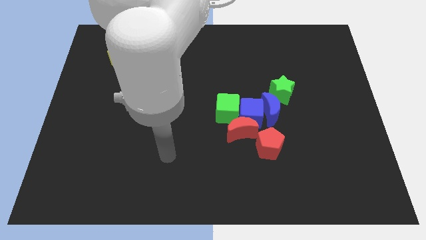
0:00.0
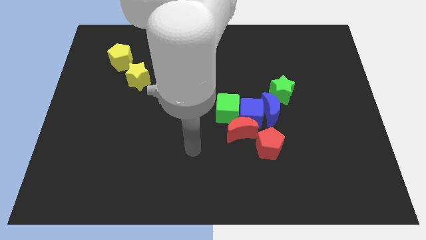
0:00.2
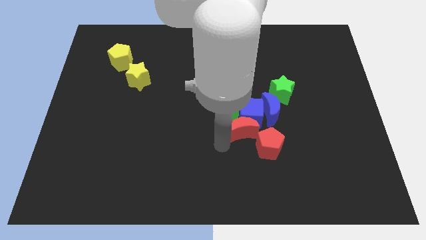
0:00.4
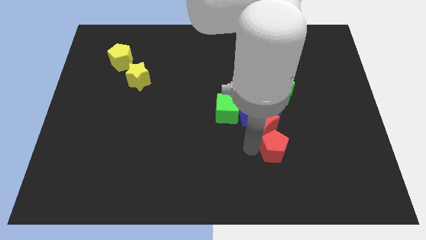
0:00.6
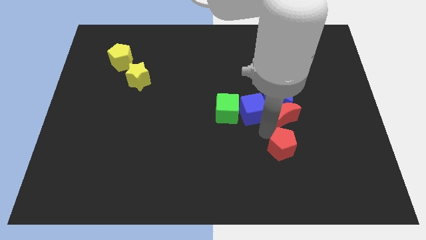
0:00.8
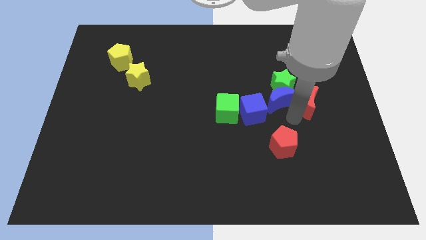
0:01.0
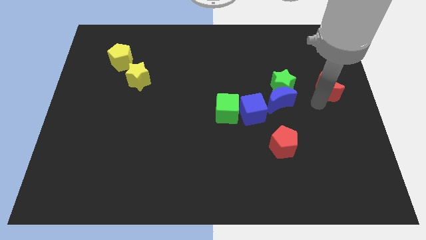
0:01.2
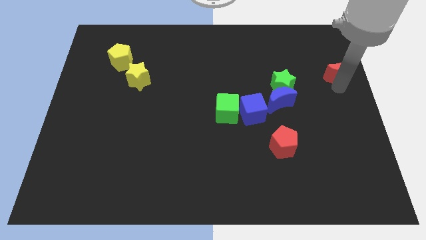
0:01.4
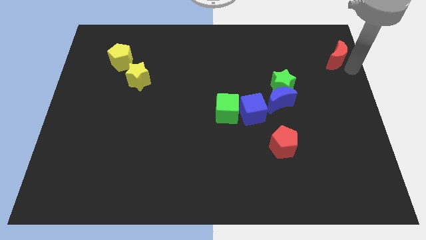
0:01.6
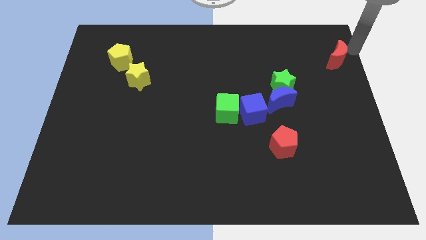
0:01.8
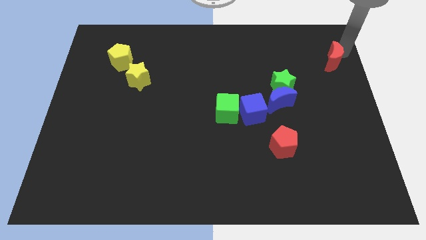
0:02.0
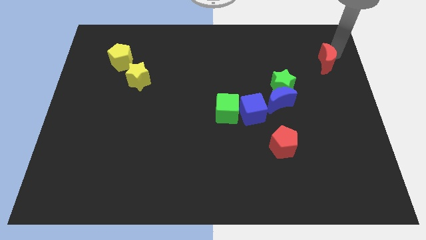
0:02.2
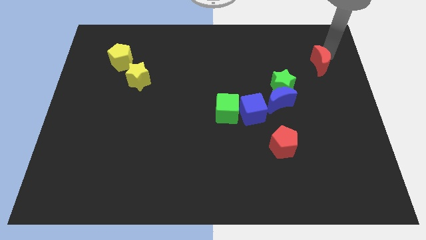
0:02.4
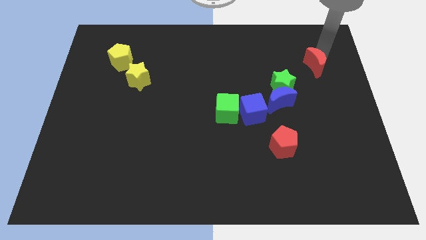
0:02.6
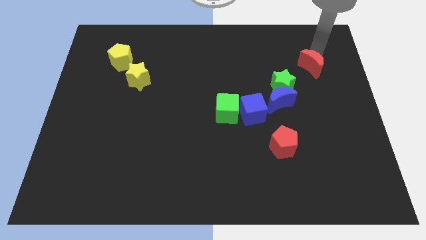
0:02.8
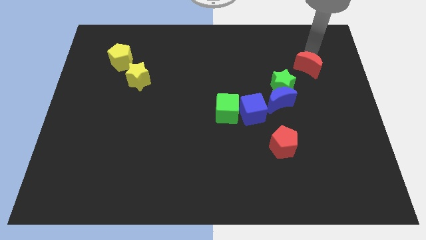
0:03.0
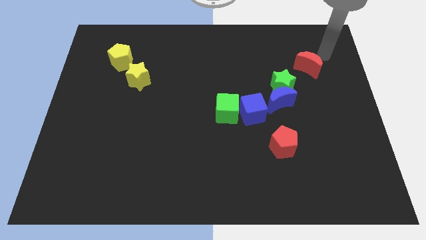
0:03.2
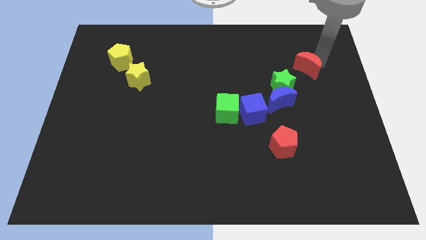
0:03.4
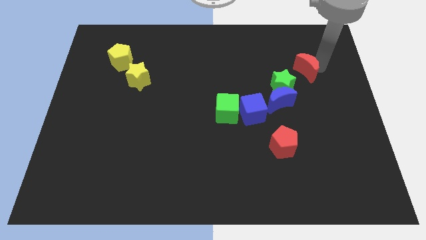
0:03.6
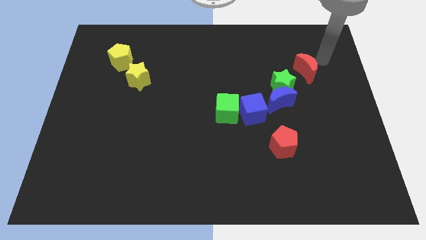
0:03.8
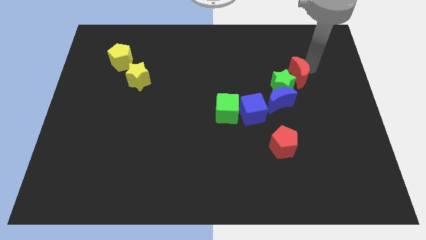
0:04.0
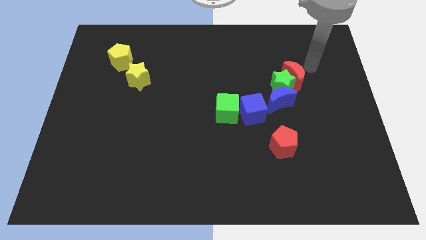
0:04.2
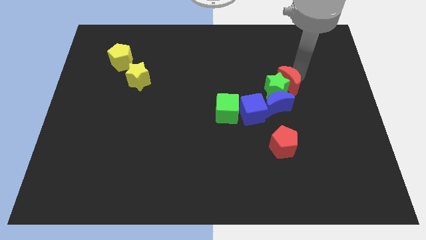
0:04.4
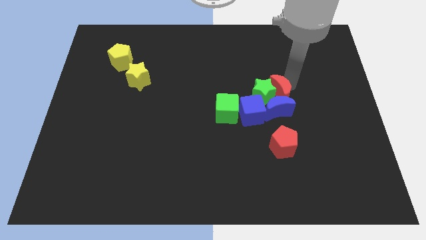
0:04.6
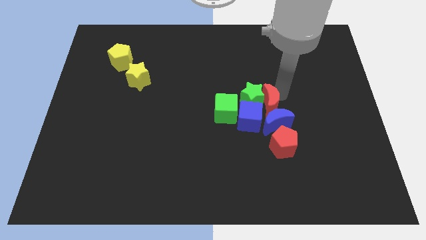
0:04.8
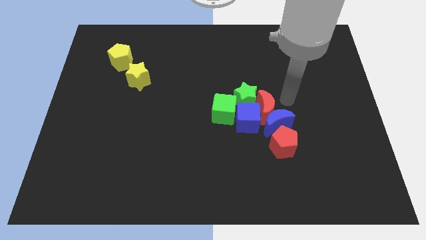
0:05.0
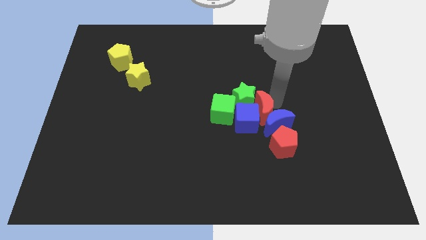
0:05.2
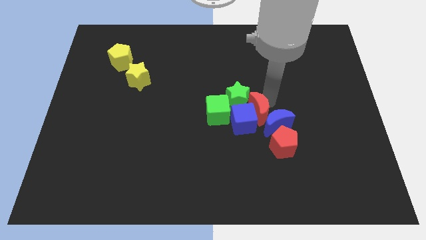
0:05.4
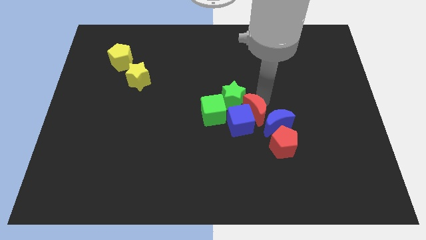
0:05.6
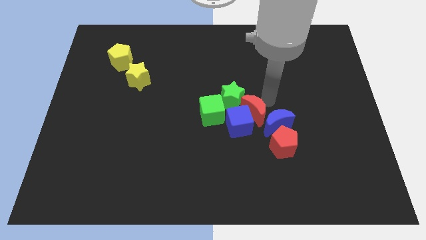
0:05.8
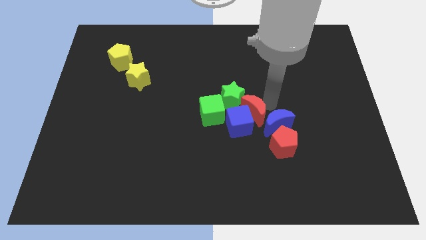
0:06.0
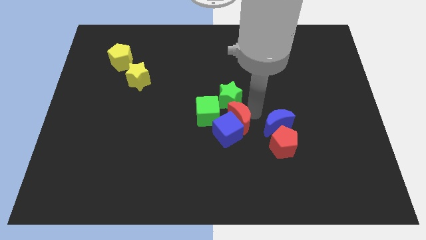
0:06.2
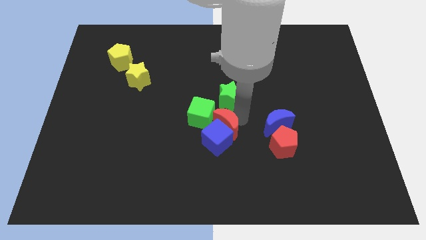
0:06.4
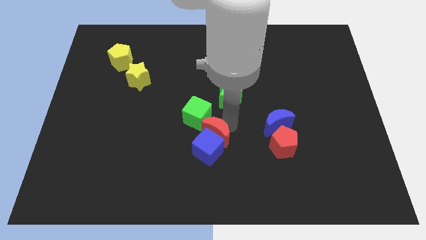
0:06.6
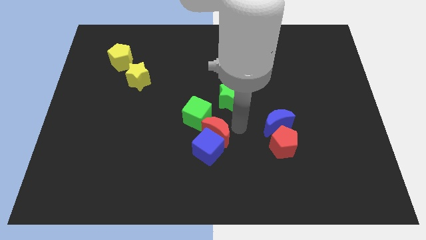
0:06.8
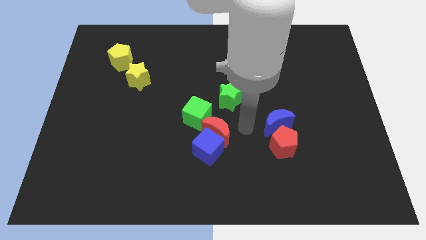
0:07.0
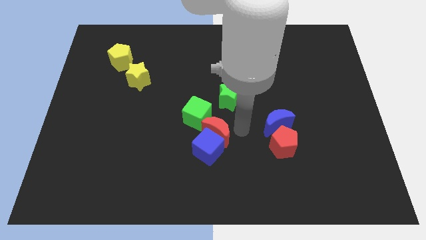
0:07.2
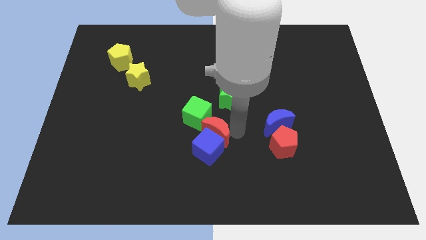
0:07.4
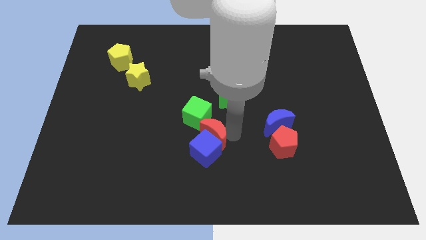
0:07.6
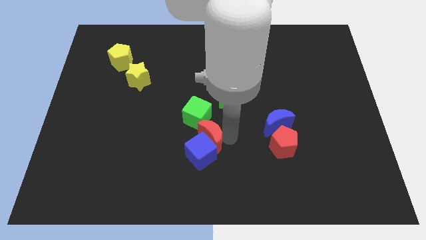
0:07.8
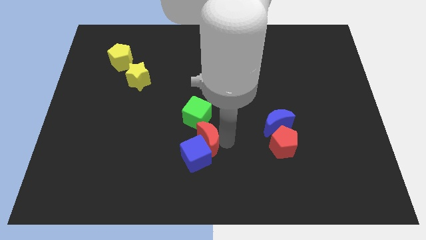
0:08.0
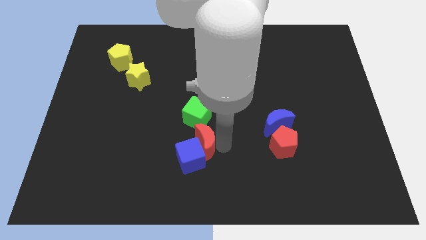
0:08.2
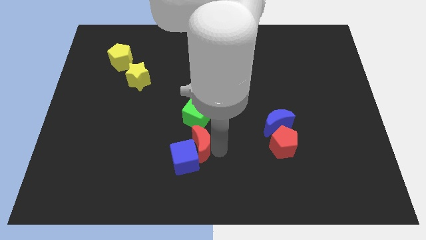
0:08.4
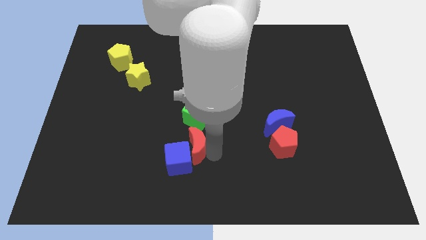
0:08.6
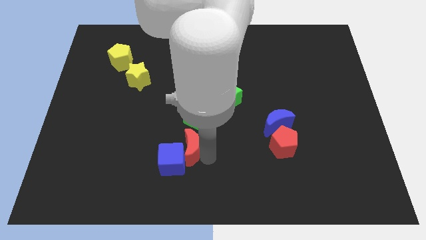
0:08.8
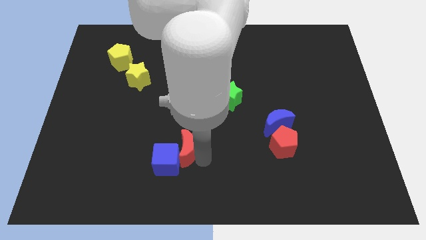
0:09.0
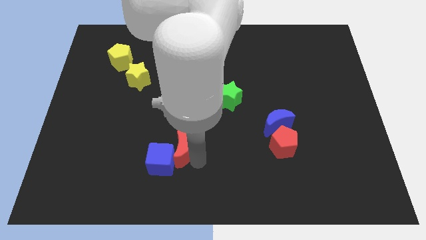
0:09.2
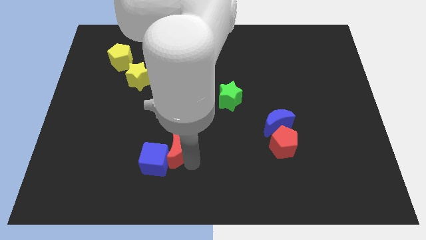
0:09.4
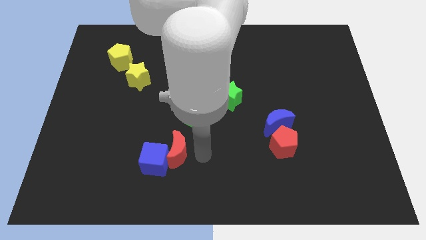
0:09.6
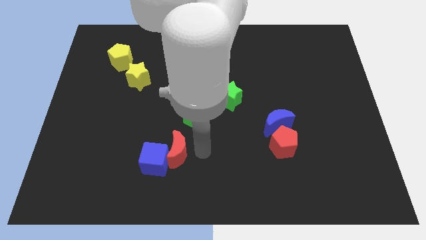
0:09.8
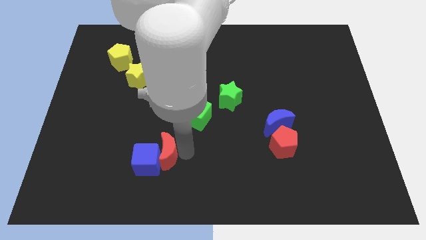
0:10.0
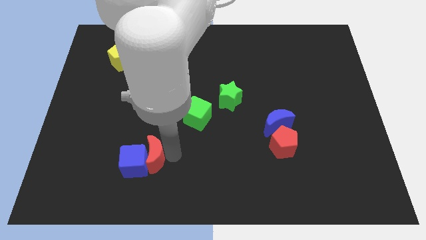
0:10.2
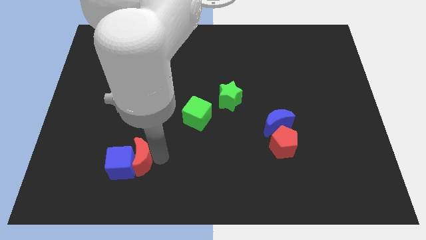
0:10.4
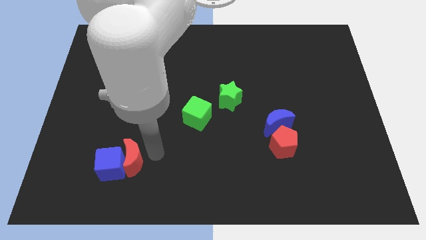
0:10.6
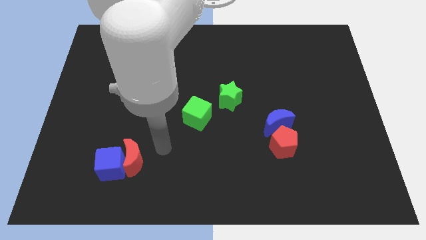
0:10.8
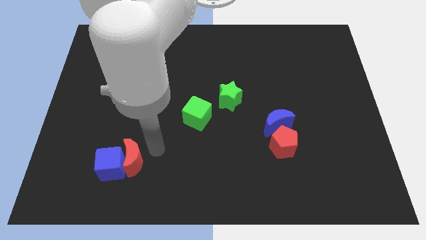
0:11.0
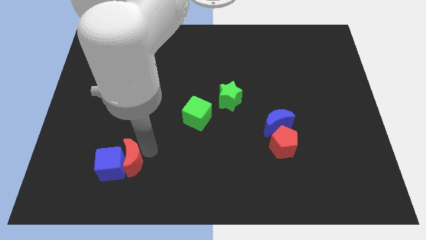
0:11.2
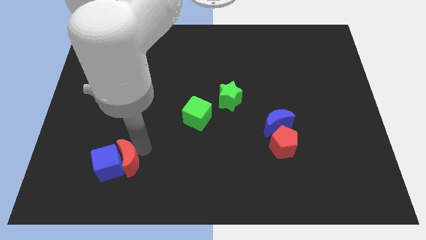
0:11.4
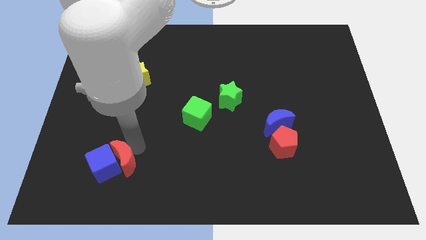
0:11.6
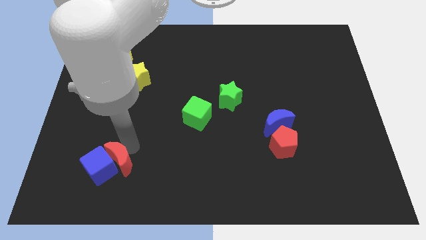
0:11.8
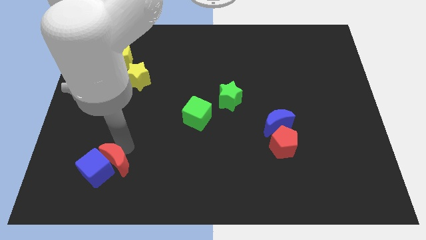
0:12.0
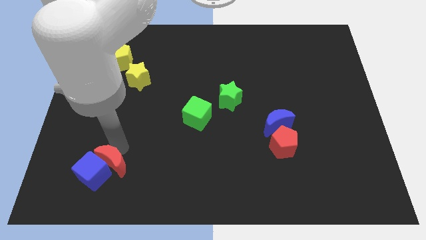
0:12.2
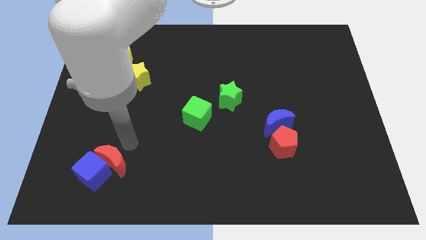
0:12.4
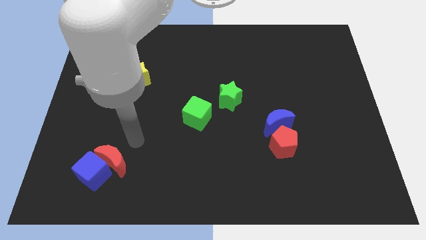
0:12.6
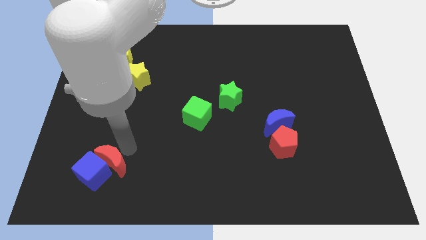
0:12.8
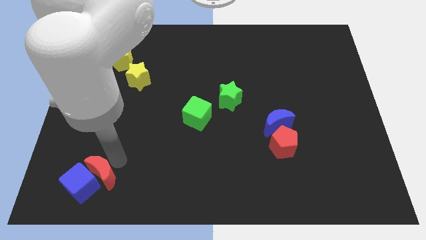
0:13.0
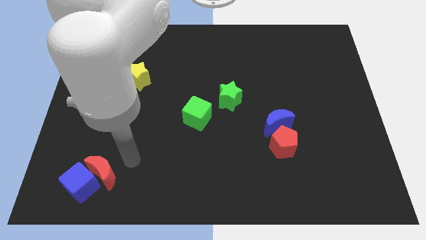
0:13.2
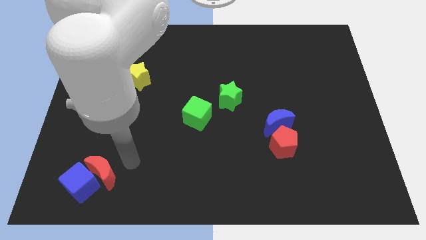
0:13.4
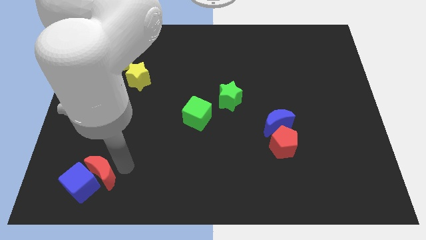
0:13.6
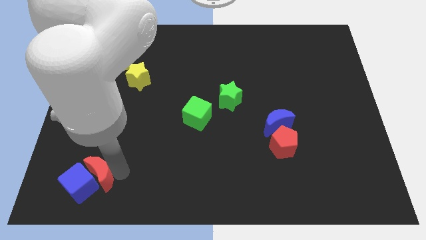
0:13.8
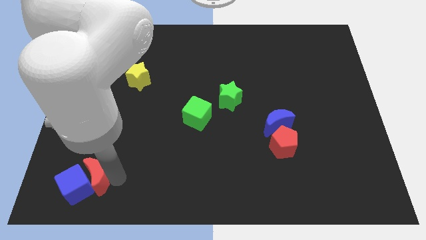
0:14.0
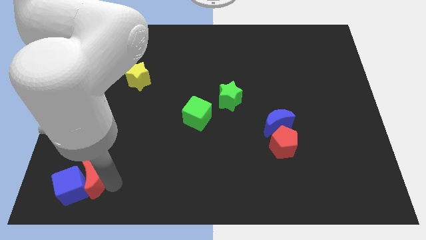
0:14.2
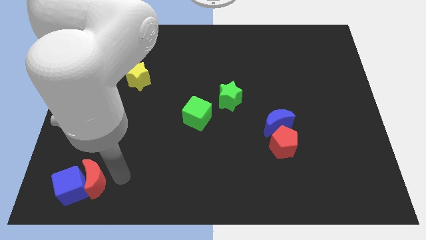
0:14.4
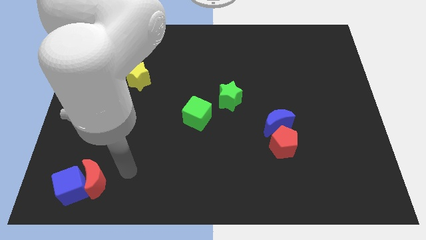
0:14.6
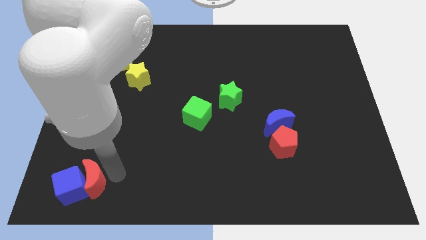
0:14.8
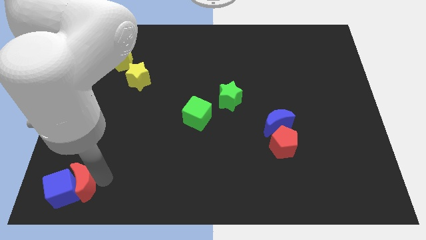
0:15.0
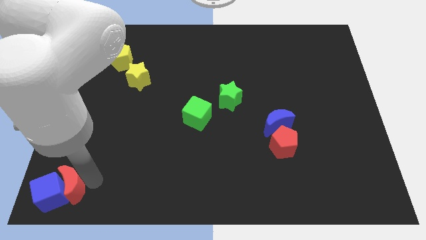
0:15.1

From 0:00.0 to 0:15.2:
slide the red moon to the bottom left corner
